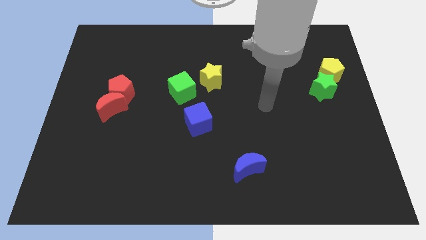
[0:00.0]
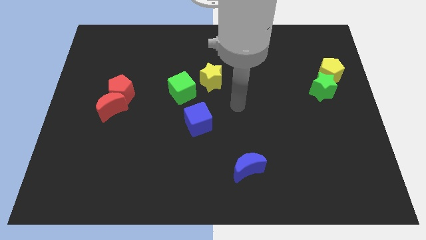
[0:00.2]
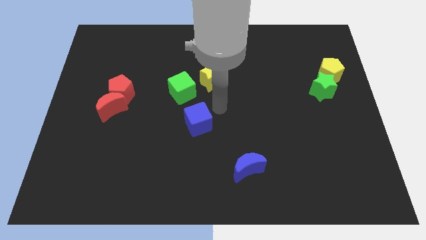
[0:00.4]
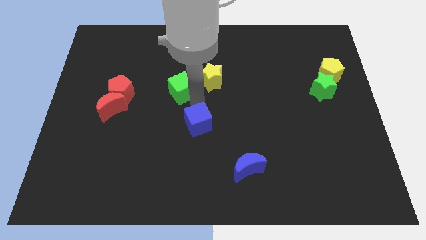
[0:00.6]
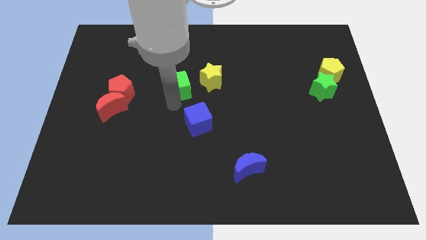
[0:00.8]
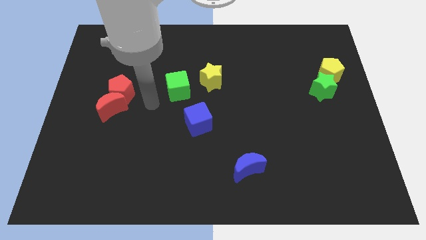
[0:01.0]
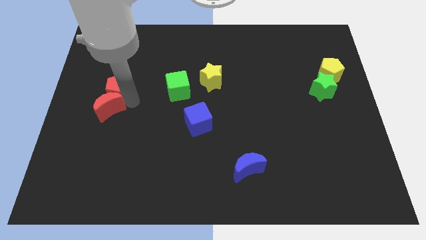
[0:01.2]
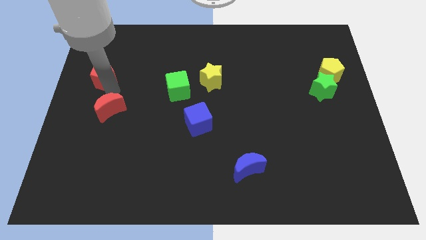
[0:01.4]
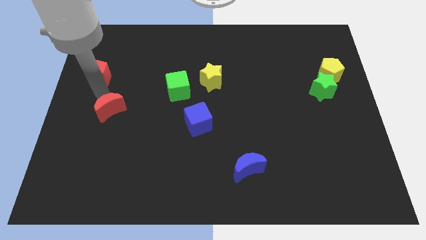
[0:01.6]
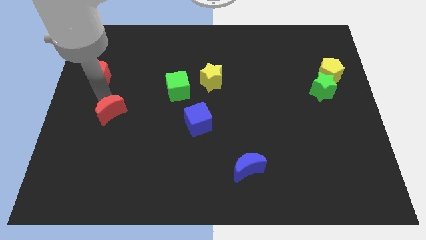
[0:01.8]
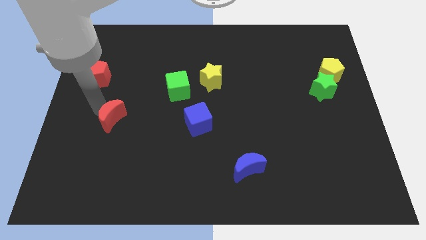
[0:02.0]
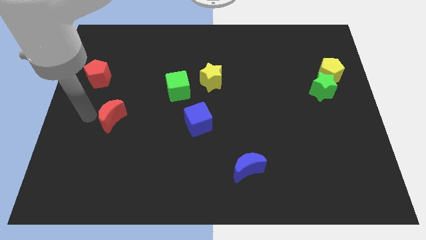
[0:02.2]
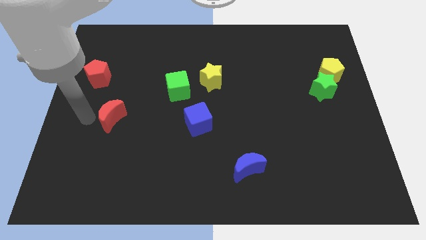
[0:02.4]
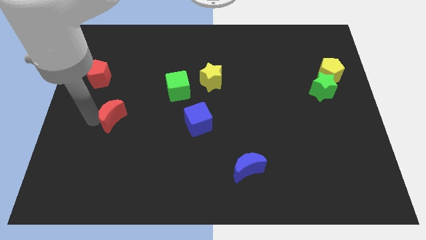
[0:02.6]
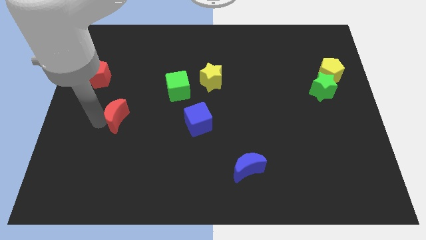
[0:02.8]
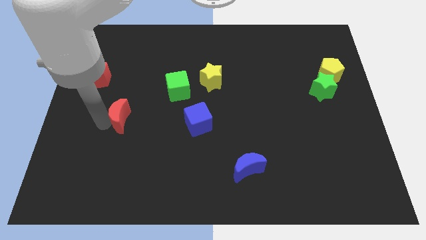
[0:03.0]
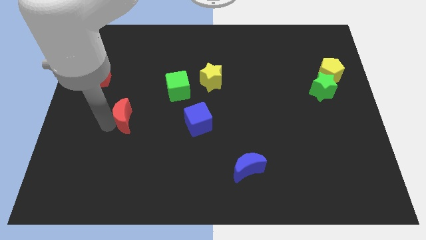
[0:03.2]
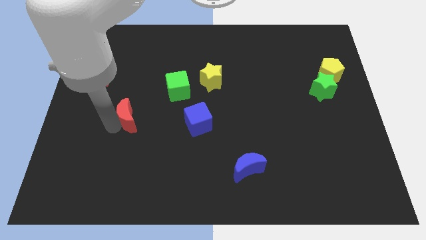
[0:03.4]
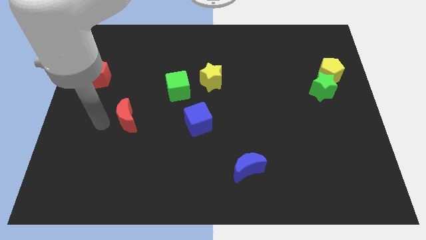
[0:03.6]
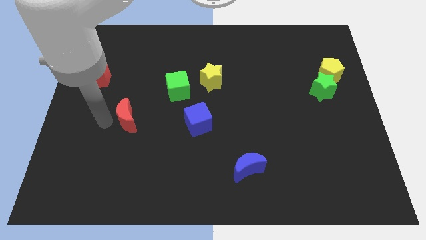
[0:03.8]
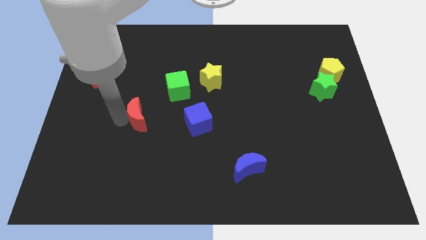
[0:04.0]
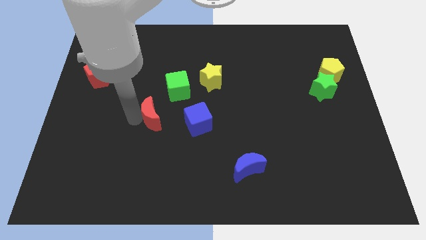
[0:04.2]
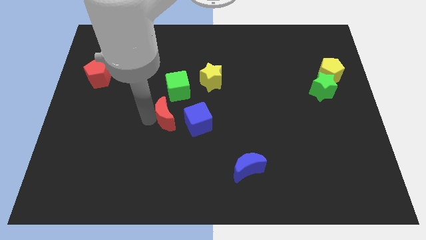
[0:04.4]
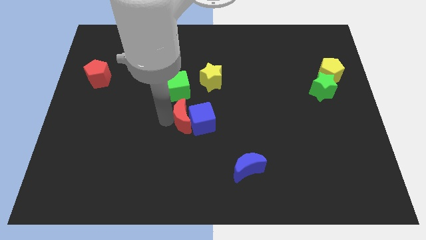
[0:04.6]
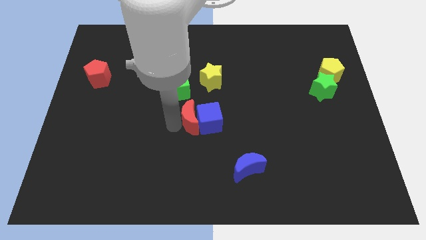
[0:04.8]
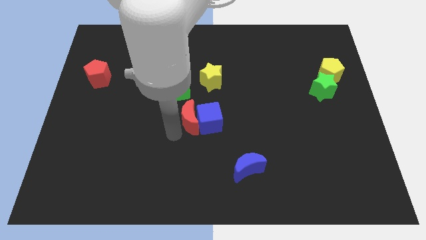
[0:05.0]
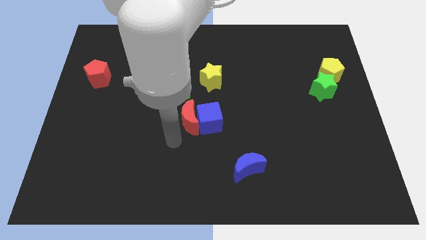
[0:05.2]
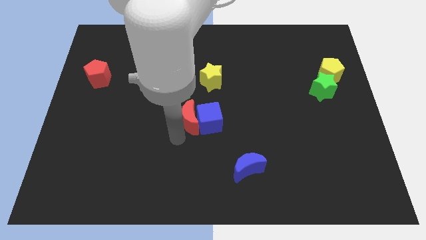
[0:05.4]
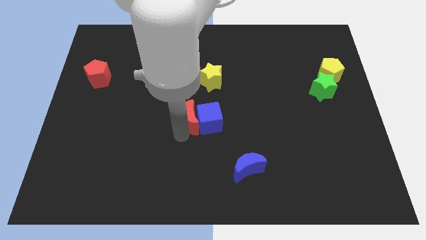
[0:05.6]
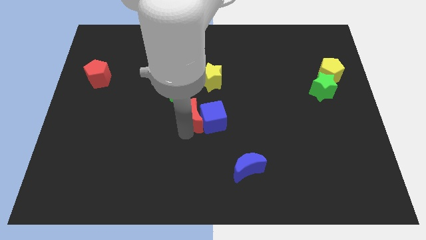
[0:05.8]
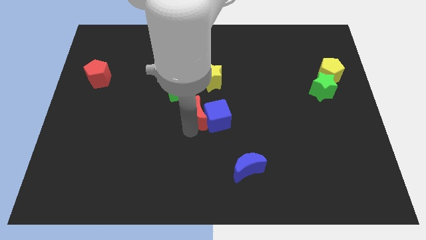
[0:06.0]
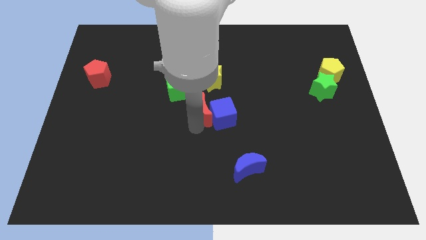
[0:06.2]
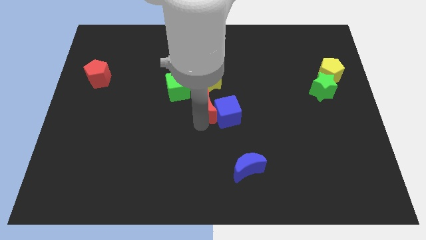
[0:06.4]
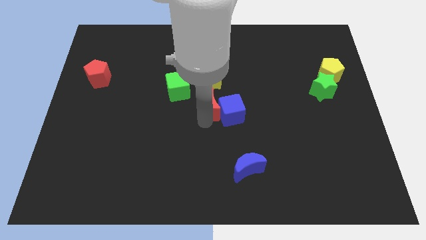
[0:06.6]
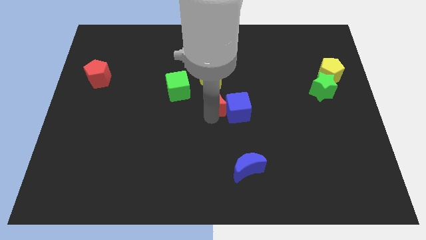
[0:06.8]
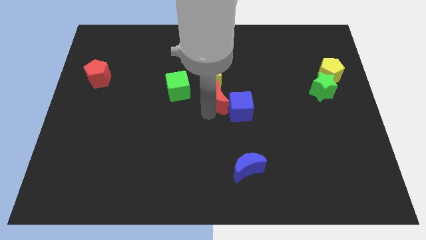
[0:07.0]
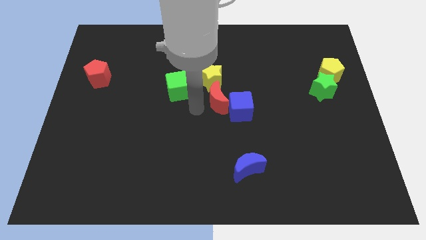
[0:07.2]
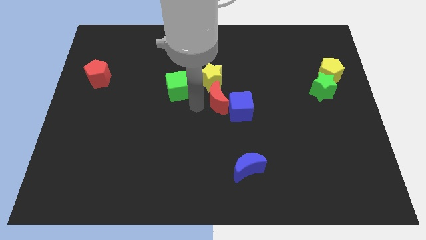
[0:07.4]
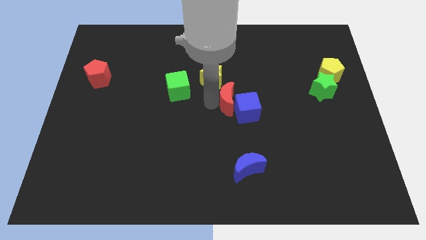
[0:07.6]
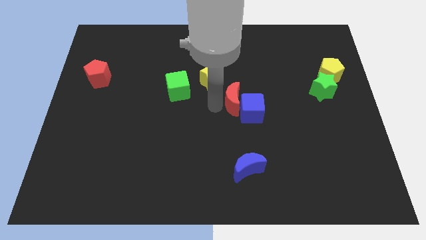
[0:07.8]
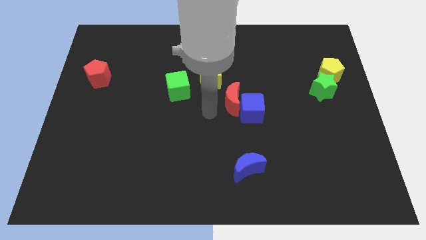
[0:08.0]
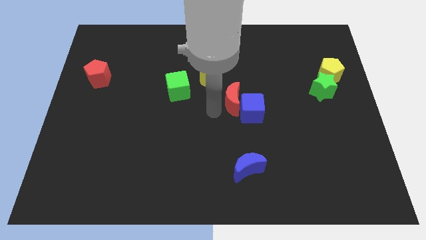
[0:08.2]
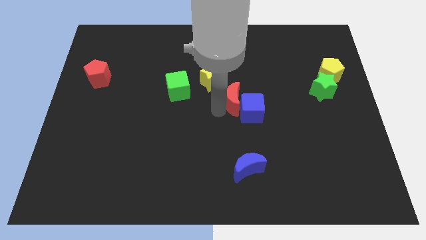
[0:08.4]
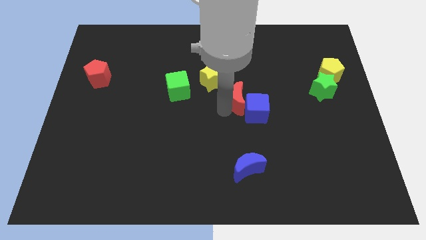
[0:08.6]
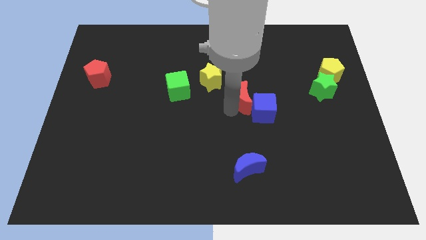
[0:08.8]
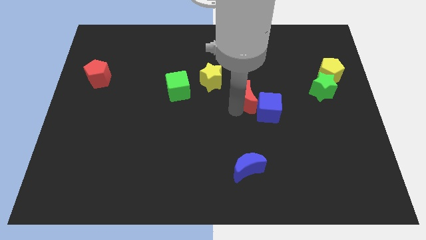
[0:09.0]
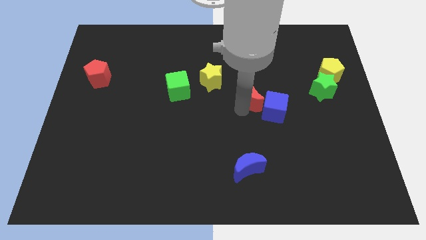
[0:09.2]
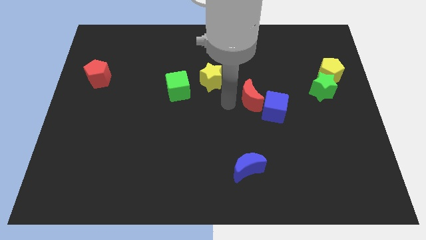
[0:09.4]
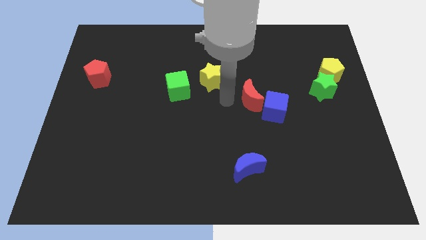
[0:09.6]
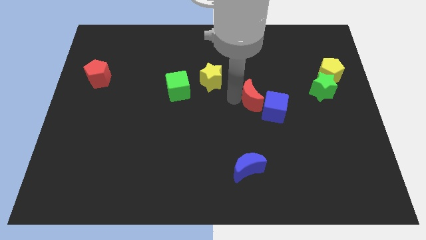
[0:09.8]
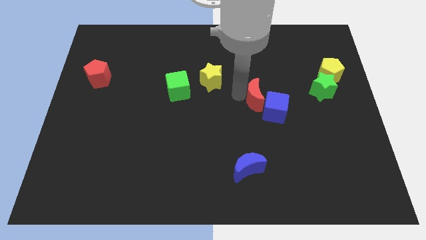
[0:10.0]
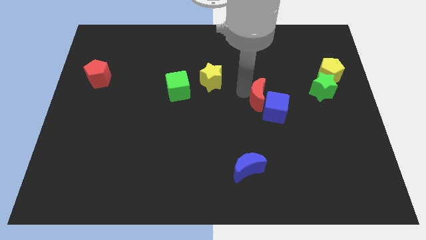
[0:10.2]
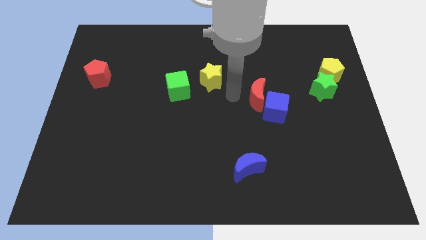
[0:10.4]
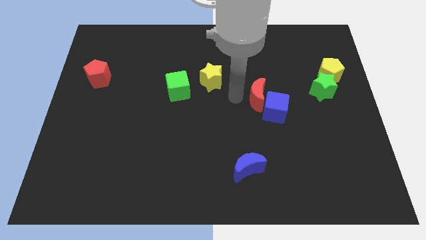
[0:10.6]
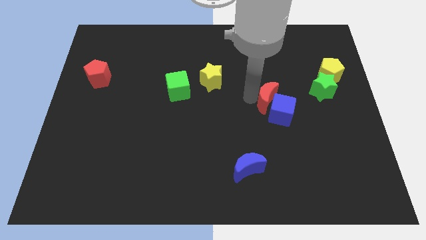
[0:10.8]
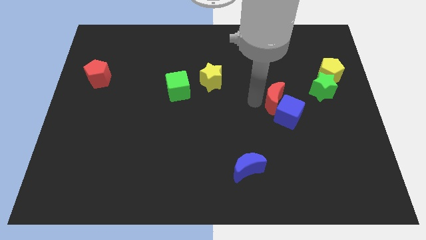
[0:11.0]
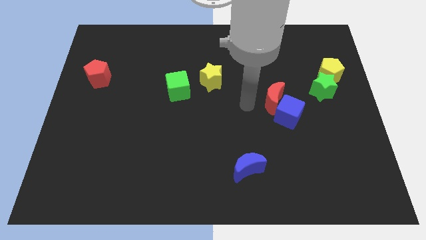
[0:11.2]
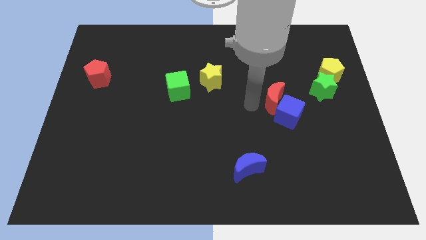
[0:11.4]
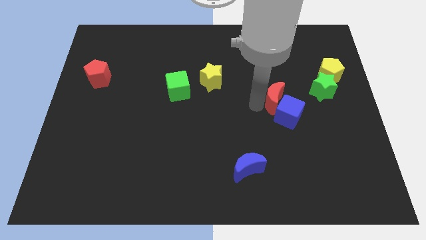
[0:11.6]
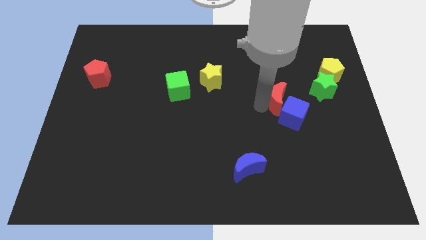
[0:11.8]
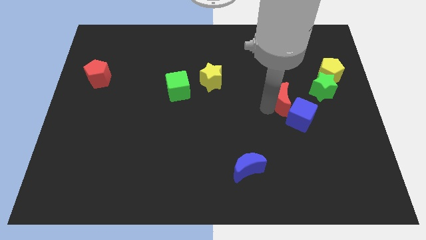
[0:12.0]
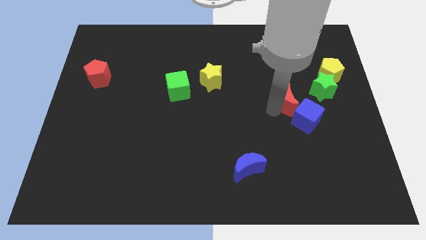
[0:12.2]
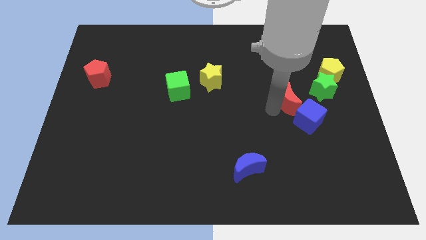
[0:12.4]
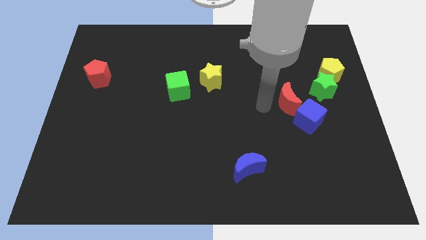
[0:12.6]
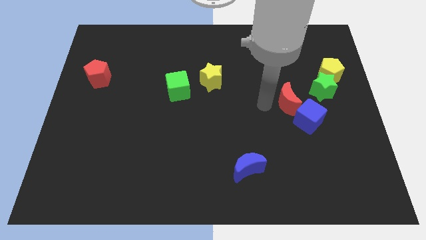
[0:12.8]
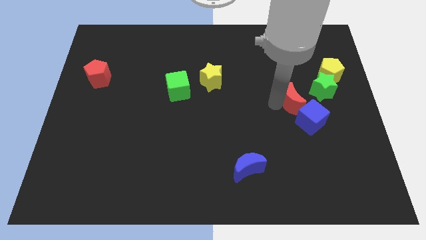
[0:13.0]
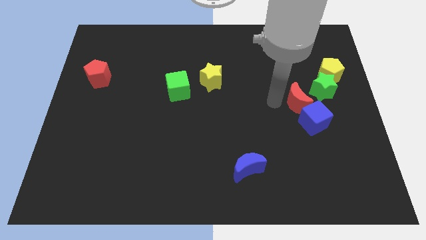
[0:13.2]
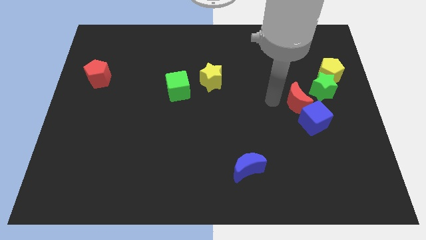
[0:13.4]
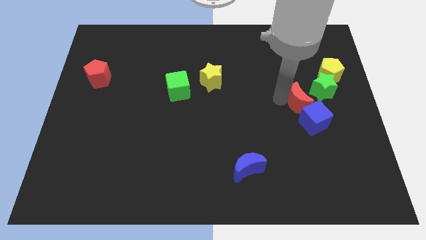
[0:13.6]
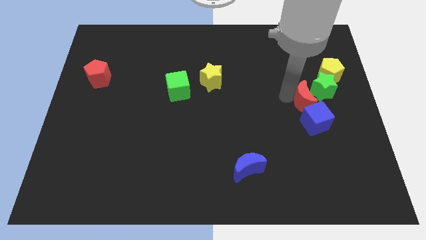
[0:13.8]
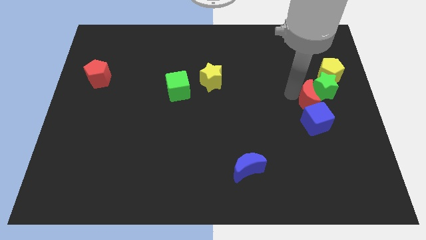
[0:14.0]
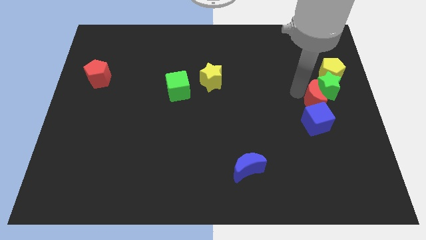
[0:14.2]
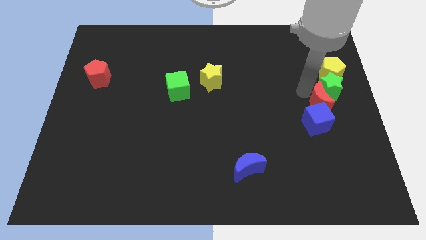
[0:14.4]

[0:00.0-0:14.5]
put the red moon to the right side of the board
